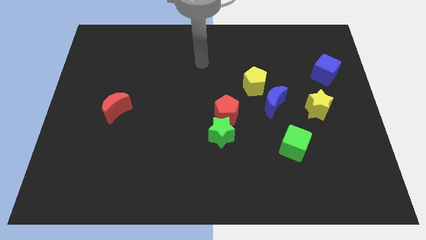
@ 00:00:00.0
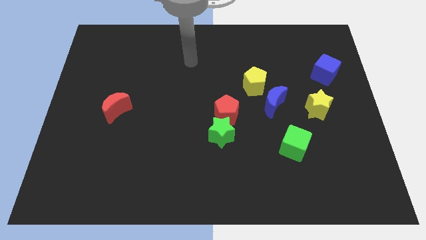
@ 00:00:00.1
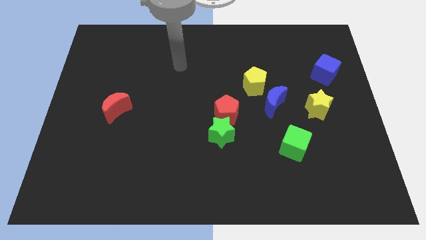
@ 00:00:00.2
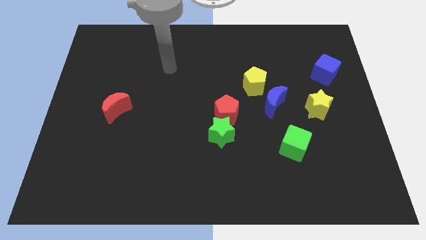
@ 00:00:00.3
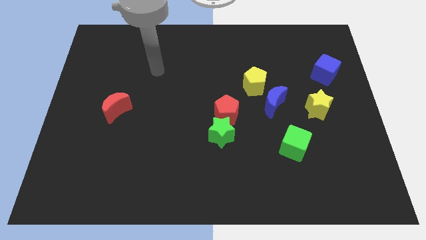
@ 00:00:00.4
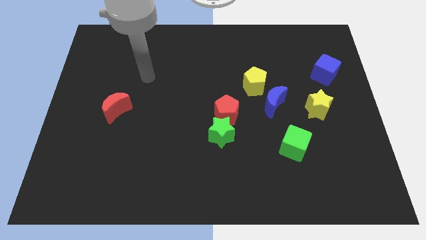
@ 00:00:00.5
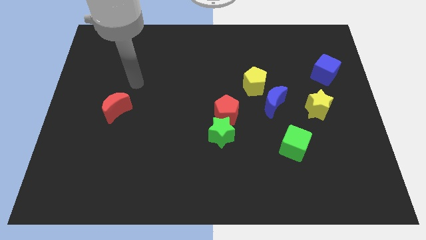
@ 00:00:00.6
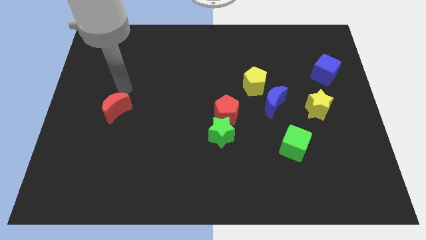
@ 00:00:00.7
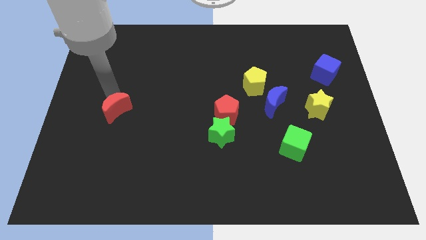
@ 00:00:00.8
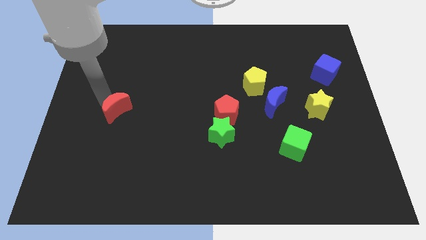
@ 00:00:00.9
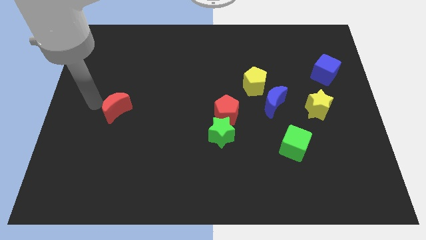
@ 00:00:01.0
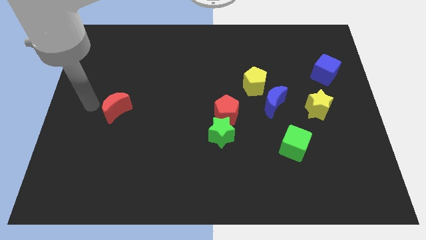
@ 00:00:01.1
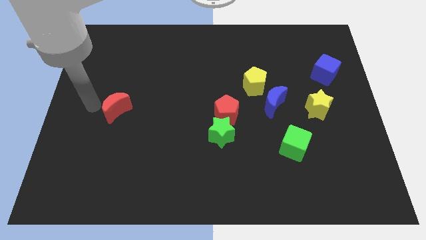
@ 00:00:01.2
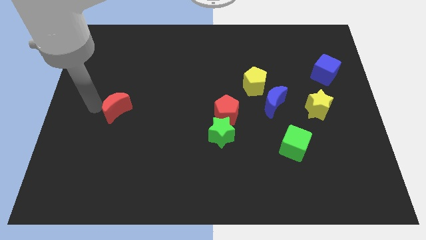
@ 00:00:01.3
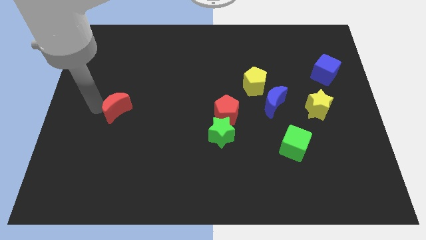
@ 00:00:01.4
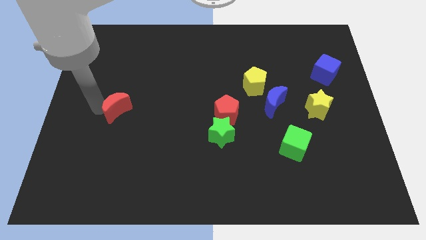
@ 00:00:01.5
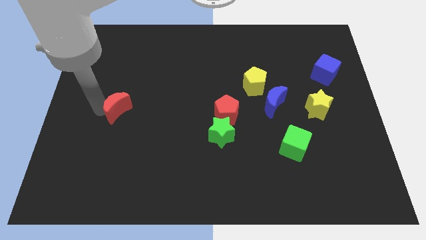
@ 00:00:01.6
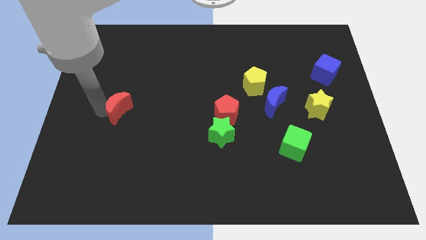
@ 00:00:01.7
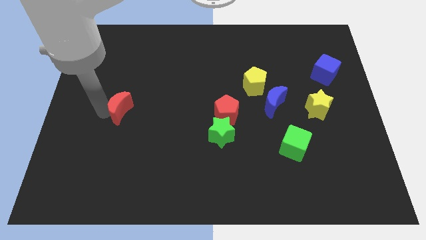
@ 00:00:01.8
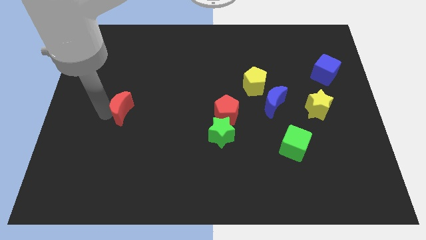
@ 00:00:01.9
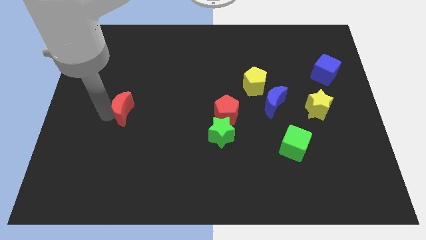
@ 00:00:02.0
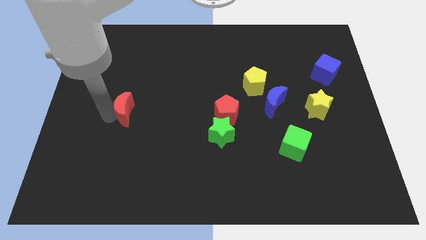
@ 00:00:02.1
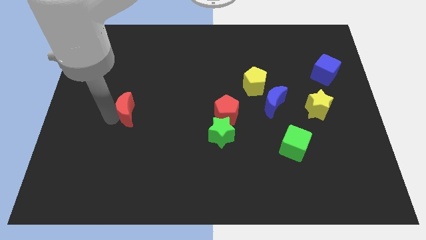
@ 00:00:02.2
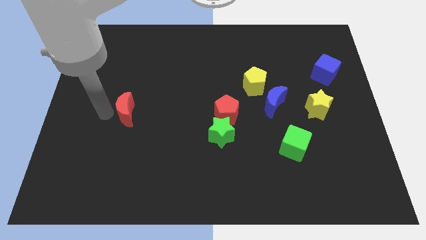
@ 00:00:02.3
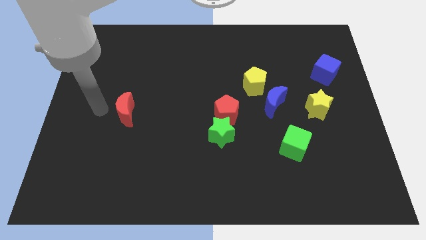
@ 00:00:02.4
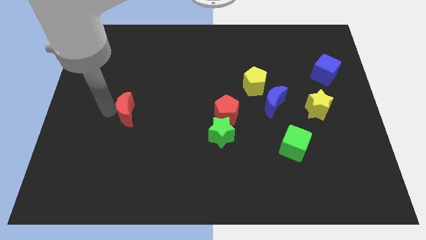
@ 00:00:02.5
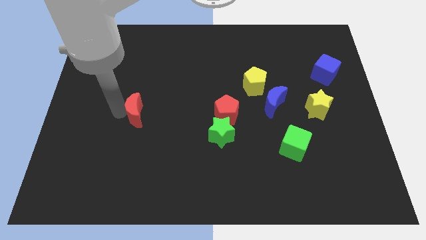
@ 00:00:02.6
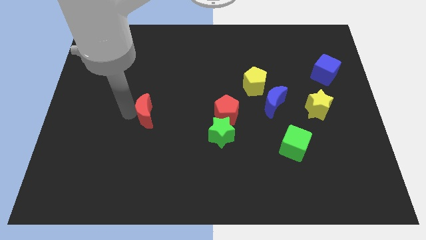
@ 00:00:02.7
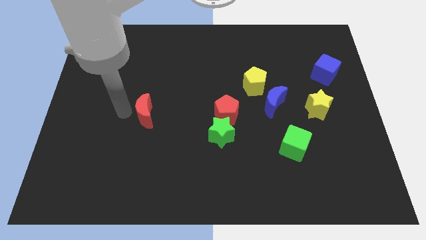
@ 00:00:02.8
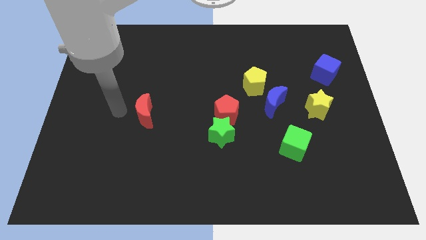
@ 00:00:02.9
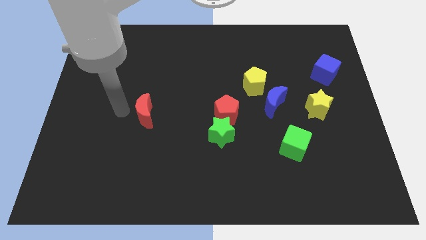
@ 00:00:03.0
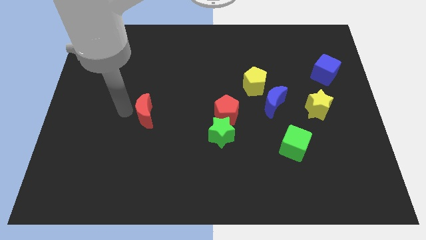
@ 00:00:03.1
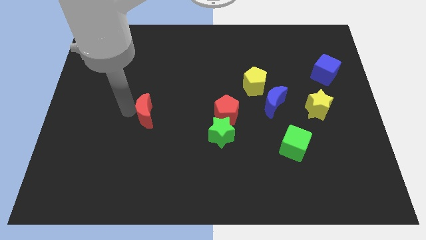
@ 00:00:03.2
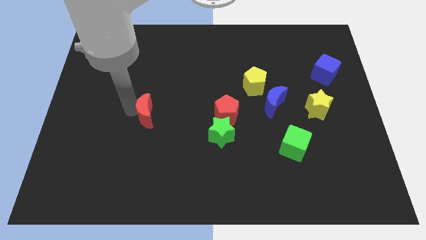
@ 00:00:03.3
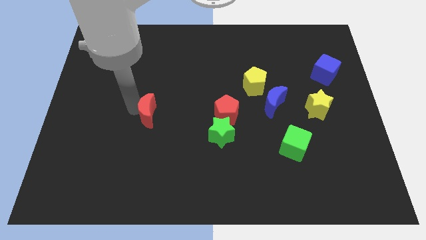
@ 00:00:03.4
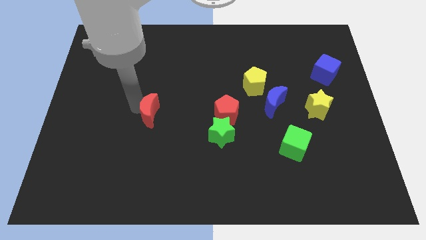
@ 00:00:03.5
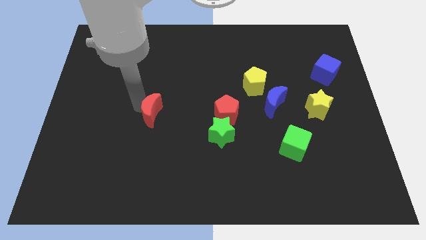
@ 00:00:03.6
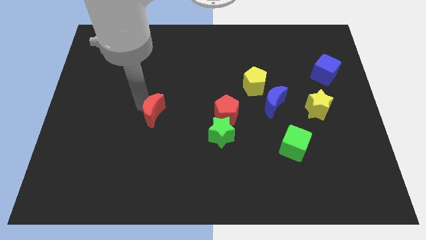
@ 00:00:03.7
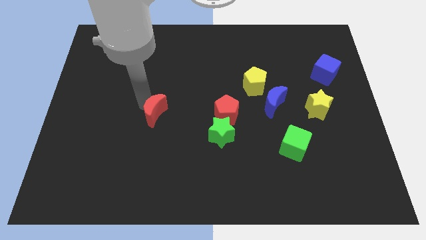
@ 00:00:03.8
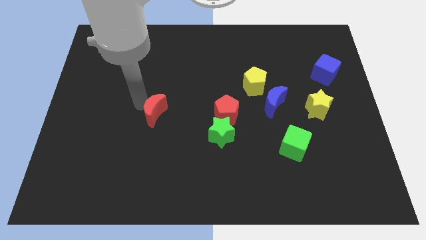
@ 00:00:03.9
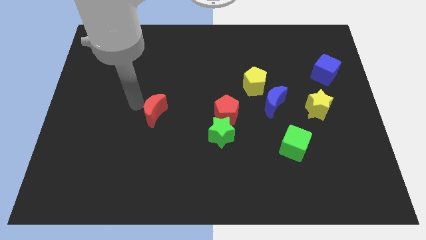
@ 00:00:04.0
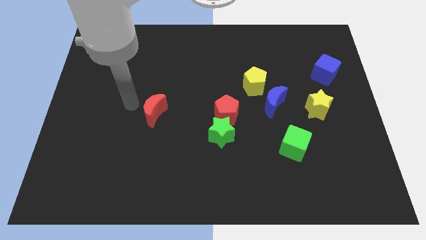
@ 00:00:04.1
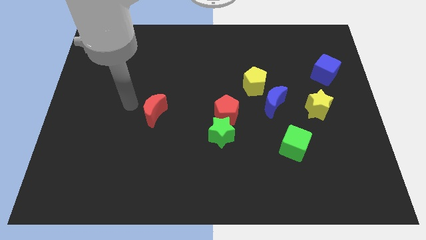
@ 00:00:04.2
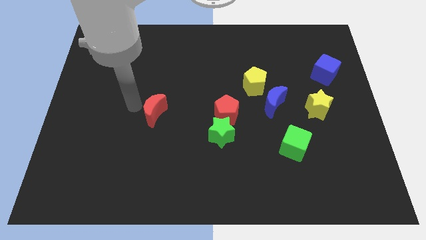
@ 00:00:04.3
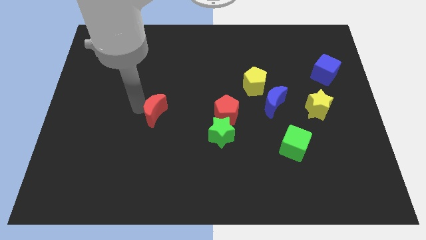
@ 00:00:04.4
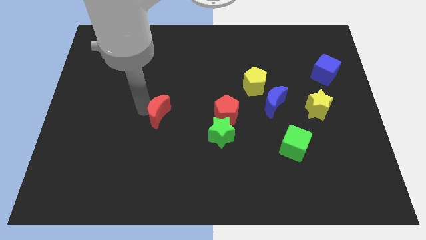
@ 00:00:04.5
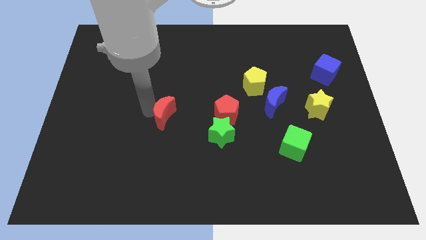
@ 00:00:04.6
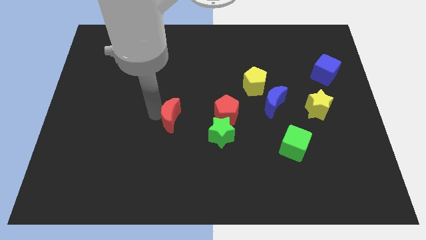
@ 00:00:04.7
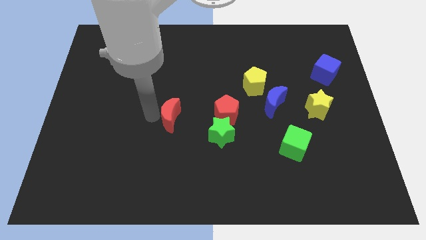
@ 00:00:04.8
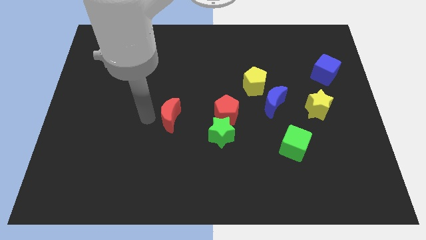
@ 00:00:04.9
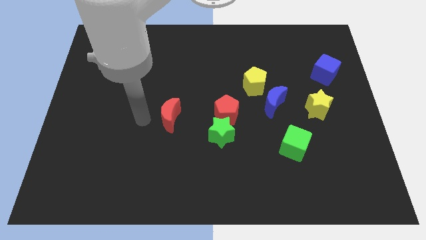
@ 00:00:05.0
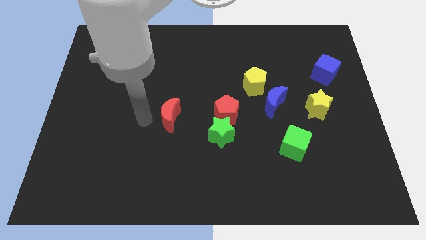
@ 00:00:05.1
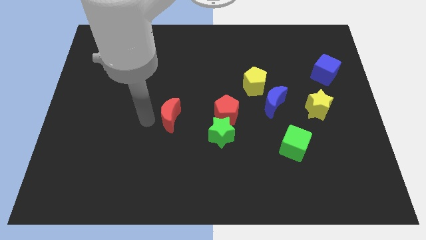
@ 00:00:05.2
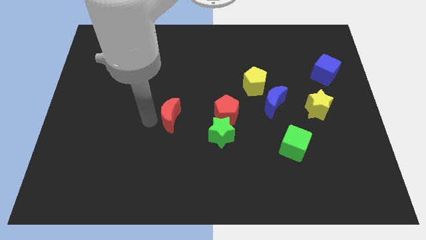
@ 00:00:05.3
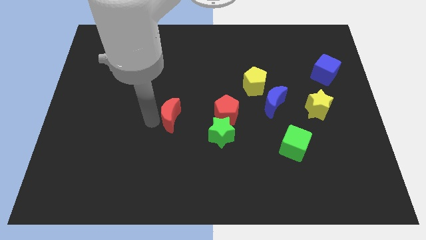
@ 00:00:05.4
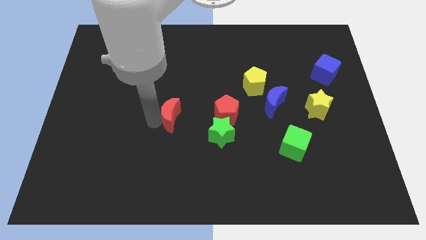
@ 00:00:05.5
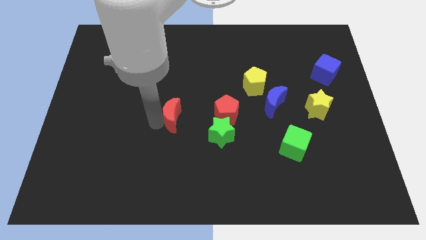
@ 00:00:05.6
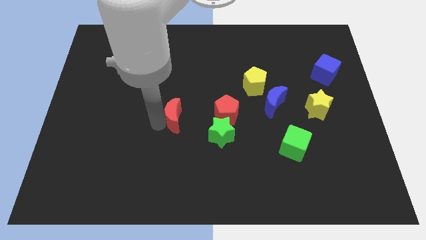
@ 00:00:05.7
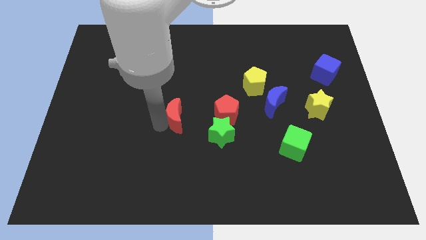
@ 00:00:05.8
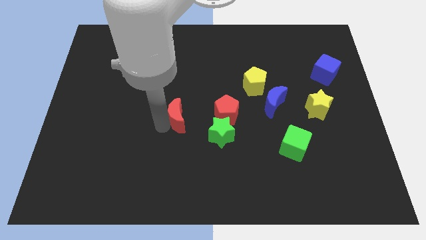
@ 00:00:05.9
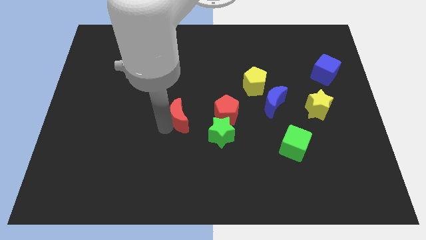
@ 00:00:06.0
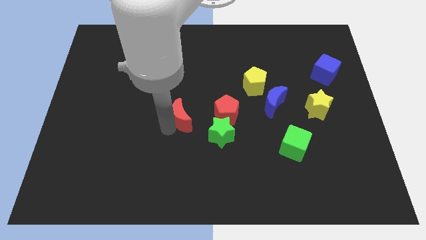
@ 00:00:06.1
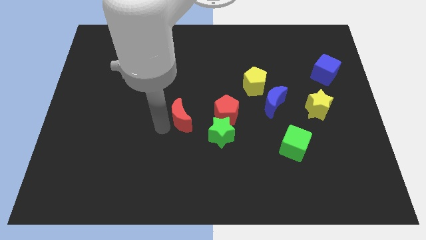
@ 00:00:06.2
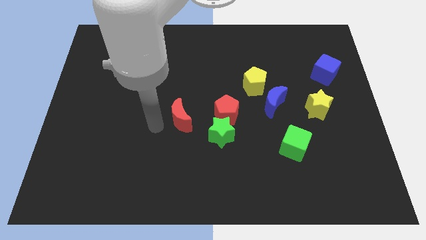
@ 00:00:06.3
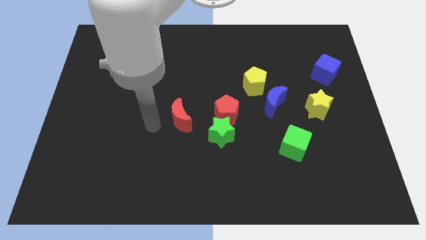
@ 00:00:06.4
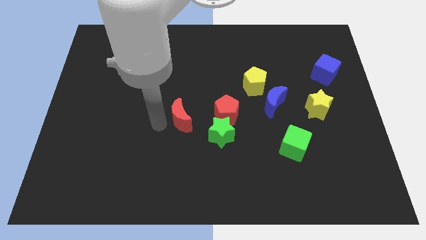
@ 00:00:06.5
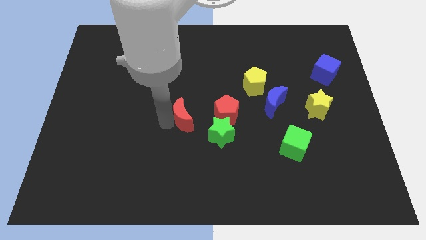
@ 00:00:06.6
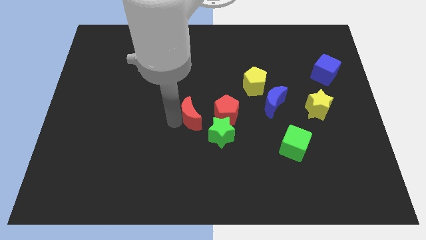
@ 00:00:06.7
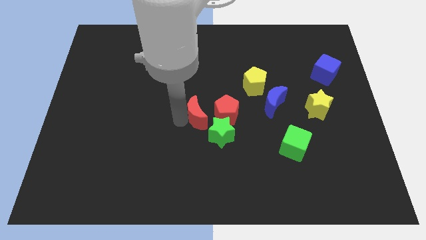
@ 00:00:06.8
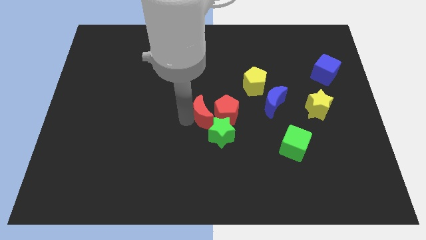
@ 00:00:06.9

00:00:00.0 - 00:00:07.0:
push the red moon towards the red pentagon

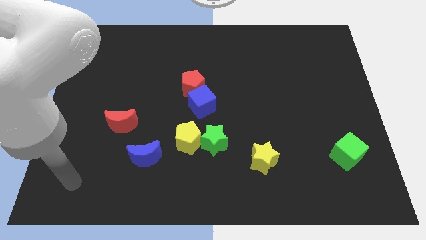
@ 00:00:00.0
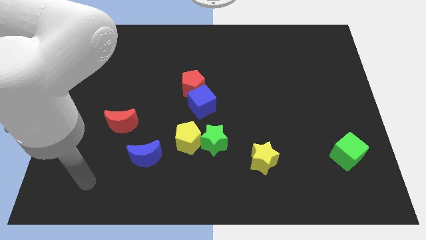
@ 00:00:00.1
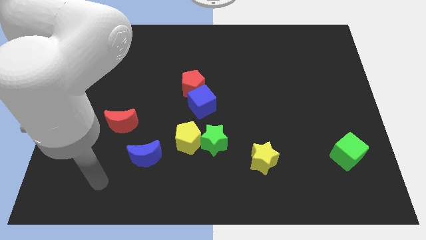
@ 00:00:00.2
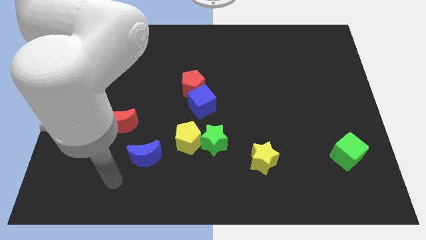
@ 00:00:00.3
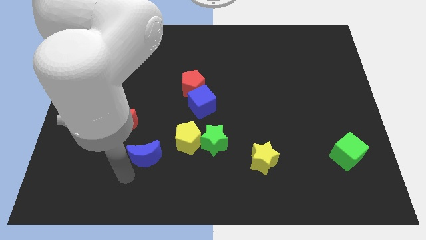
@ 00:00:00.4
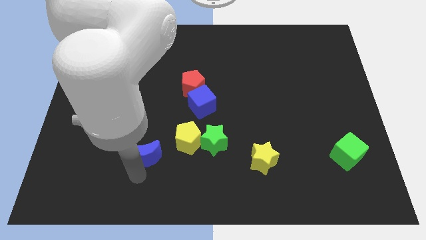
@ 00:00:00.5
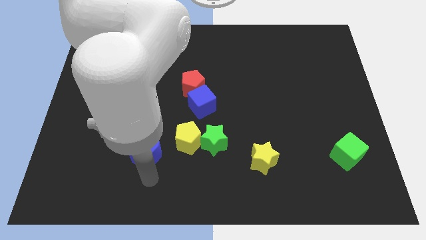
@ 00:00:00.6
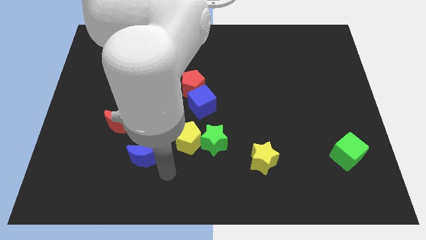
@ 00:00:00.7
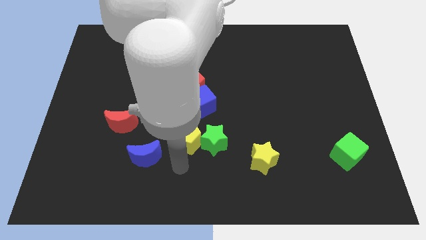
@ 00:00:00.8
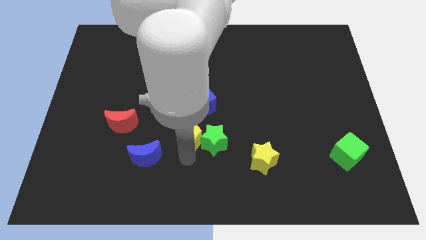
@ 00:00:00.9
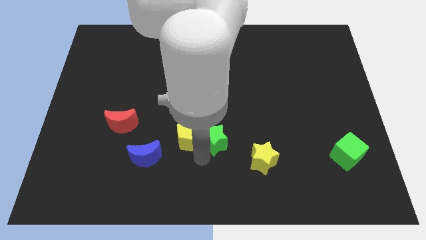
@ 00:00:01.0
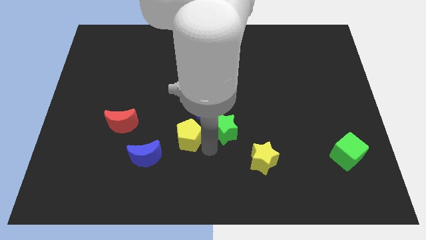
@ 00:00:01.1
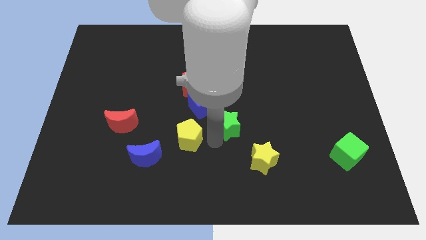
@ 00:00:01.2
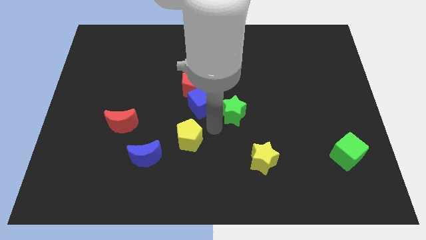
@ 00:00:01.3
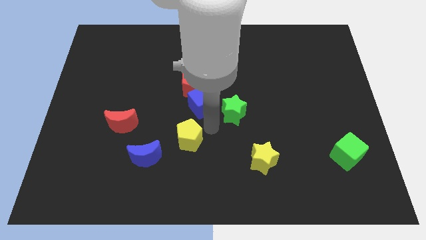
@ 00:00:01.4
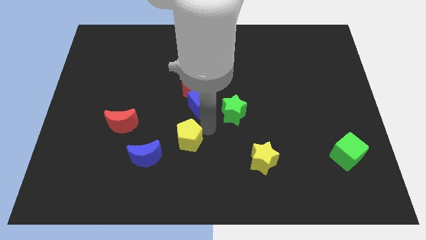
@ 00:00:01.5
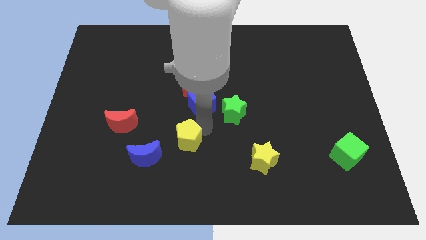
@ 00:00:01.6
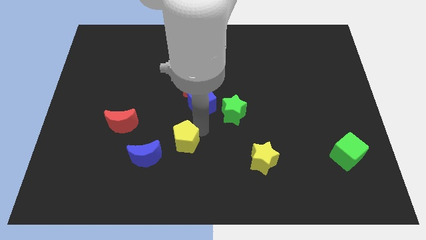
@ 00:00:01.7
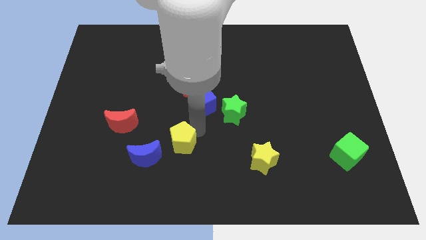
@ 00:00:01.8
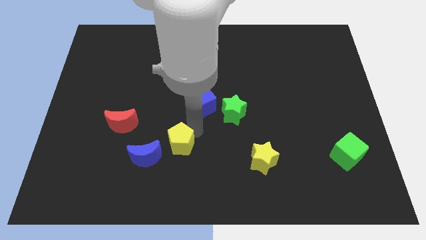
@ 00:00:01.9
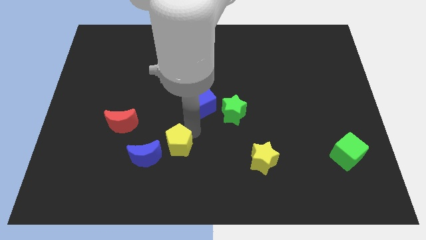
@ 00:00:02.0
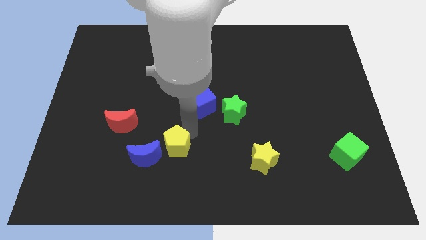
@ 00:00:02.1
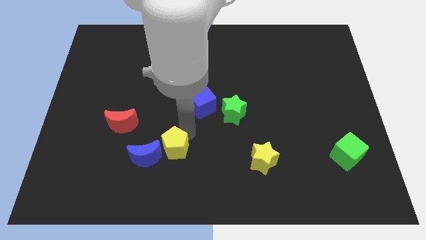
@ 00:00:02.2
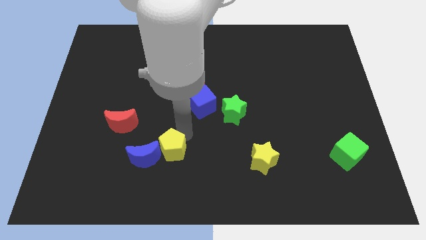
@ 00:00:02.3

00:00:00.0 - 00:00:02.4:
push the yellow pentagon close to the blue moon
